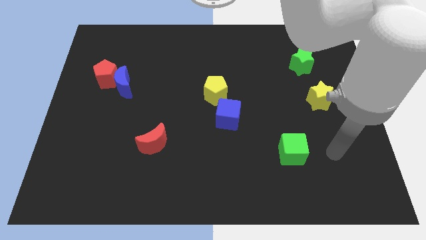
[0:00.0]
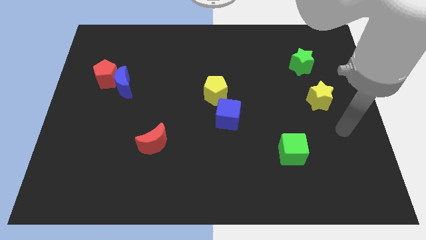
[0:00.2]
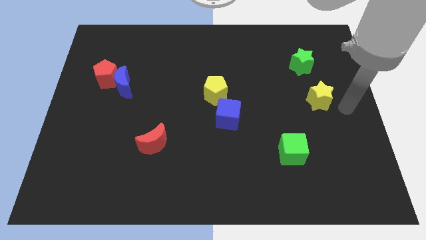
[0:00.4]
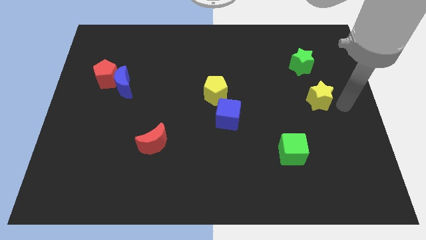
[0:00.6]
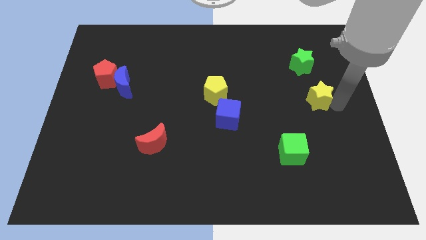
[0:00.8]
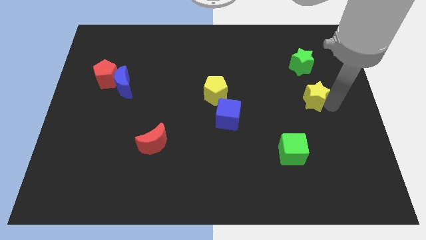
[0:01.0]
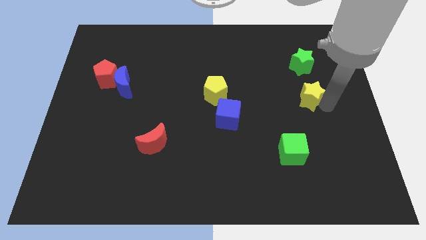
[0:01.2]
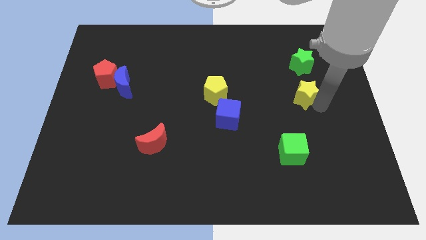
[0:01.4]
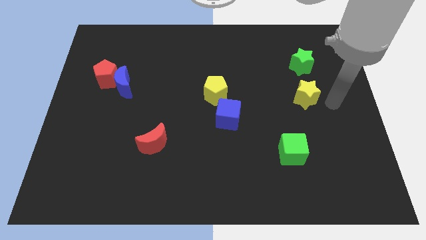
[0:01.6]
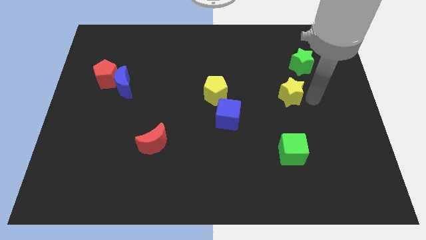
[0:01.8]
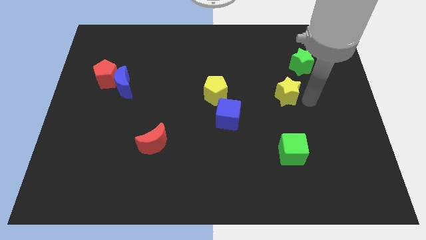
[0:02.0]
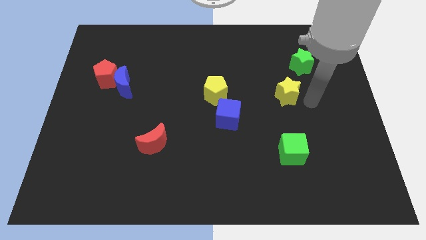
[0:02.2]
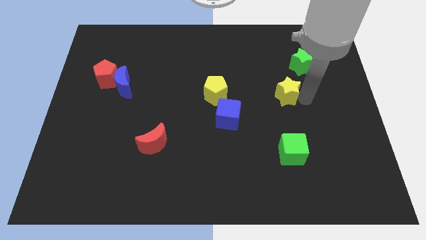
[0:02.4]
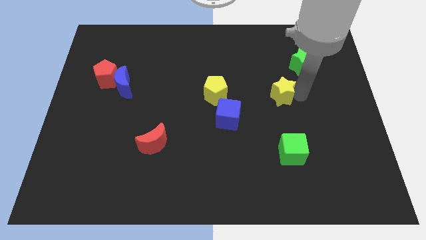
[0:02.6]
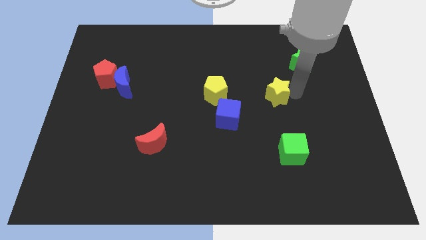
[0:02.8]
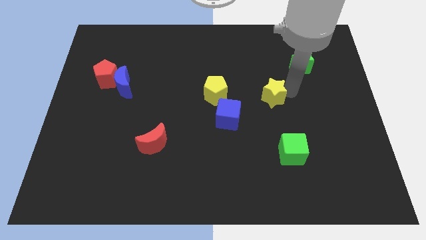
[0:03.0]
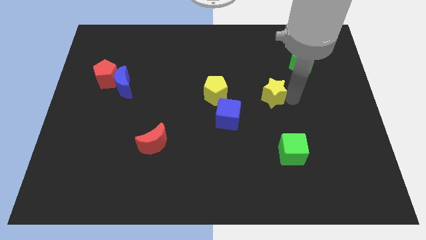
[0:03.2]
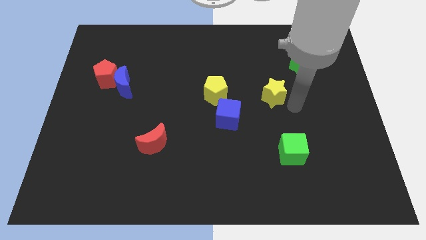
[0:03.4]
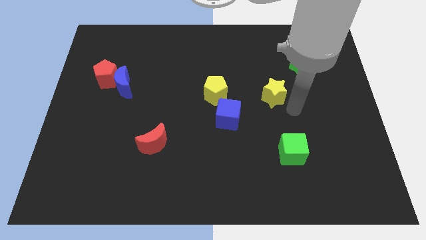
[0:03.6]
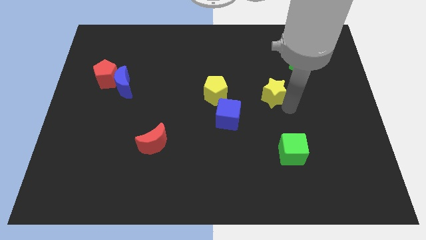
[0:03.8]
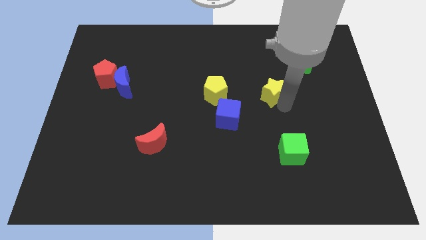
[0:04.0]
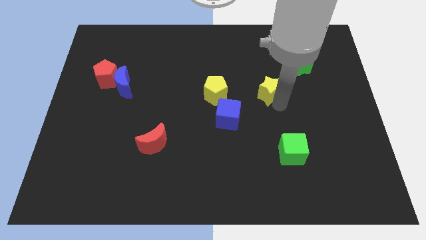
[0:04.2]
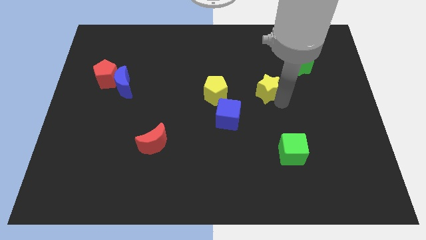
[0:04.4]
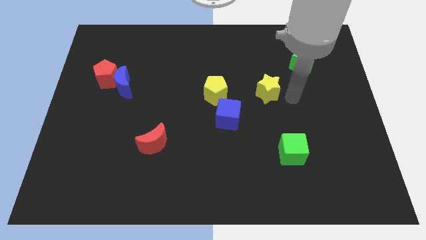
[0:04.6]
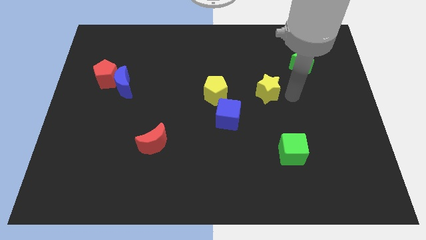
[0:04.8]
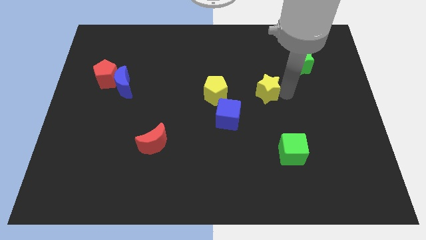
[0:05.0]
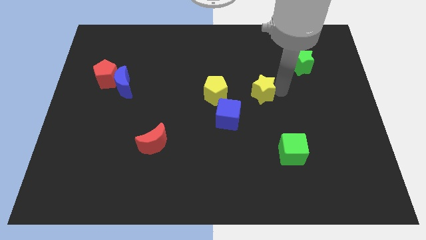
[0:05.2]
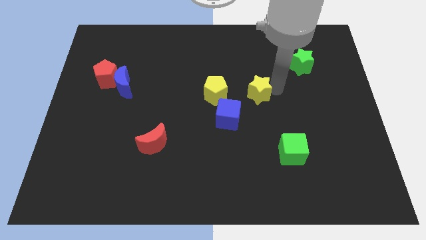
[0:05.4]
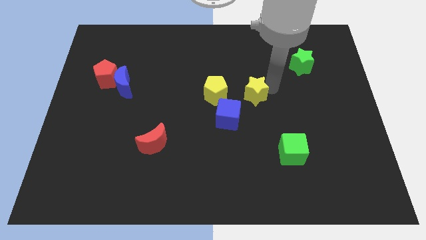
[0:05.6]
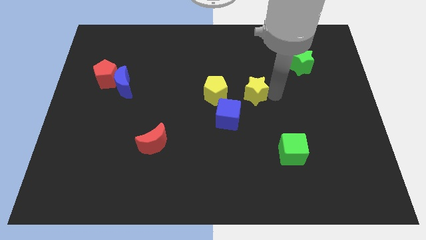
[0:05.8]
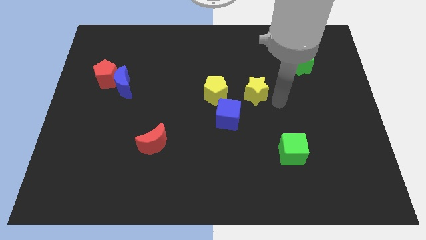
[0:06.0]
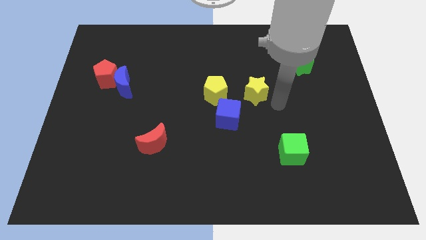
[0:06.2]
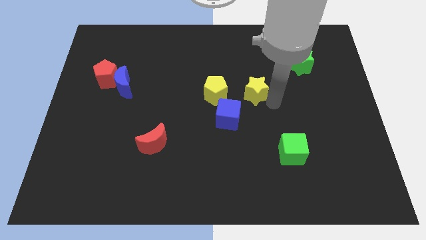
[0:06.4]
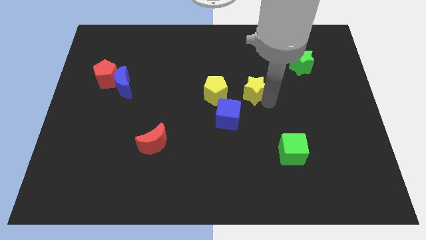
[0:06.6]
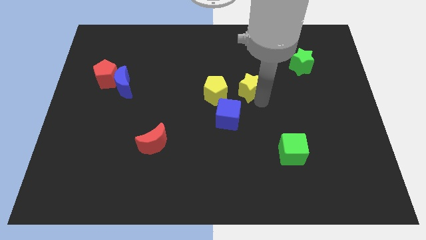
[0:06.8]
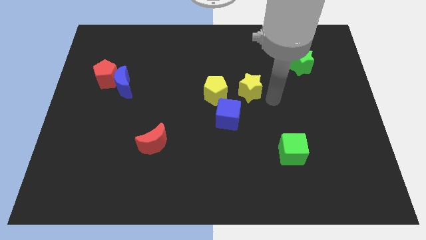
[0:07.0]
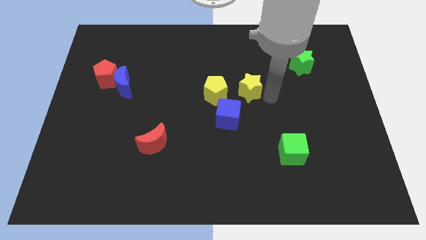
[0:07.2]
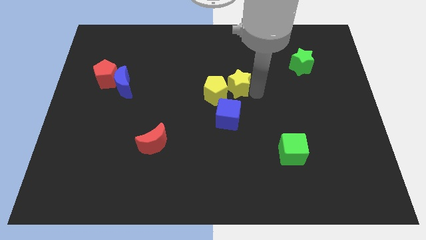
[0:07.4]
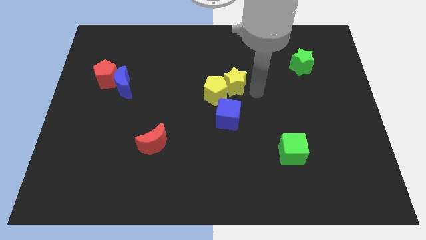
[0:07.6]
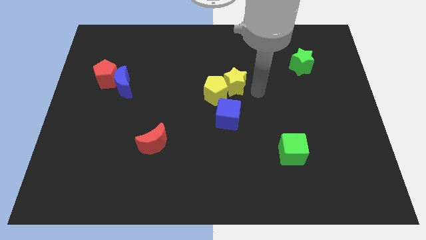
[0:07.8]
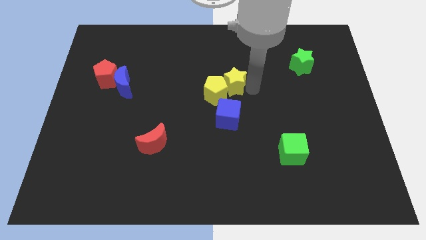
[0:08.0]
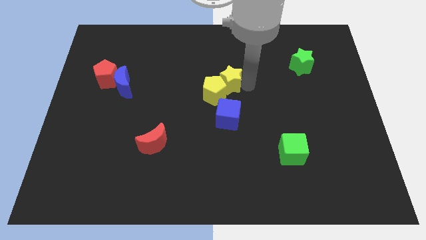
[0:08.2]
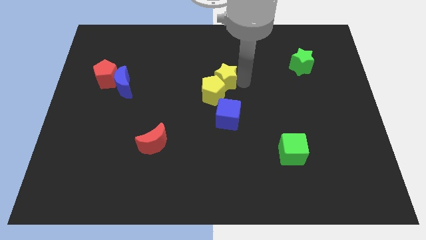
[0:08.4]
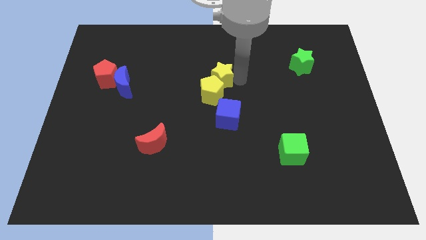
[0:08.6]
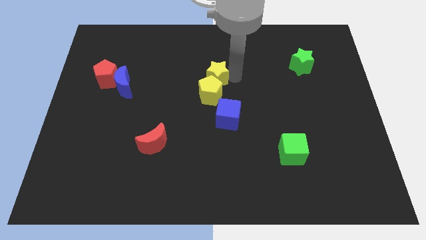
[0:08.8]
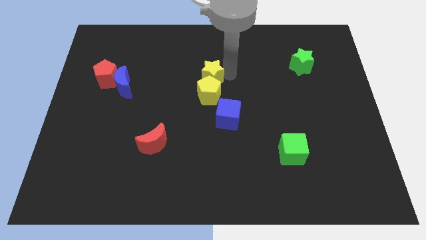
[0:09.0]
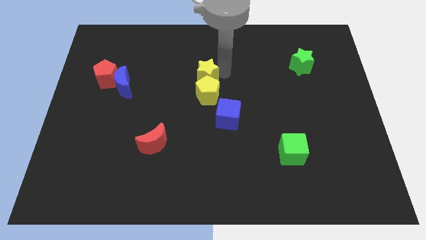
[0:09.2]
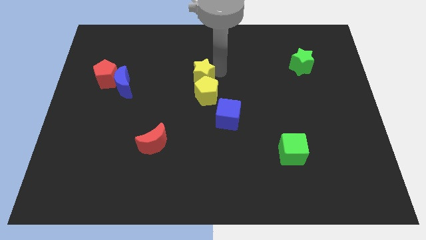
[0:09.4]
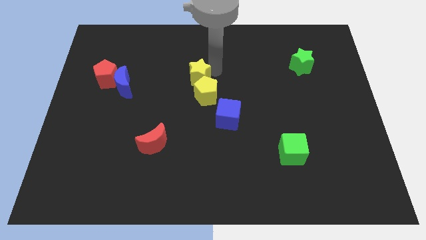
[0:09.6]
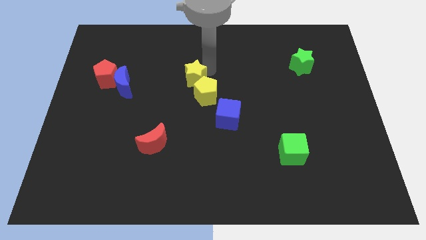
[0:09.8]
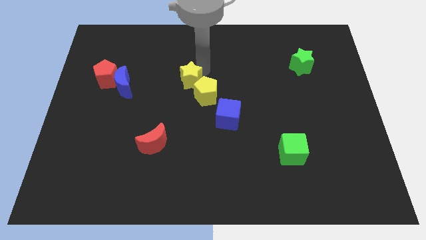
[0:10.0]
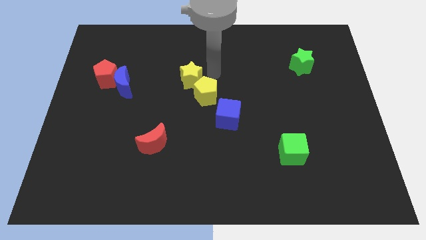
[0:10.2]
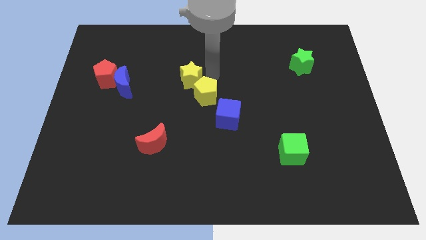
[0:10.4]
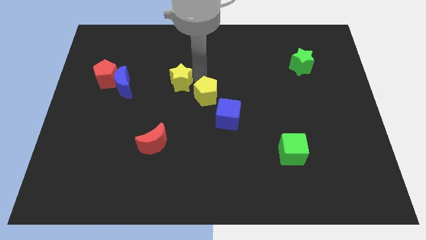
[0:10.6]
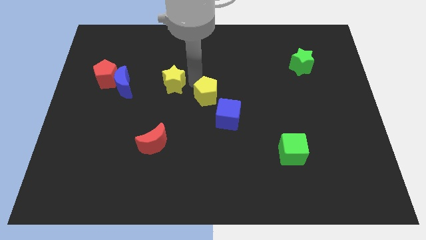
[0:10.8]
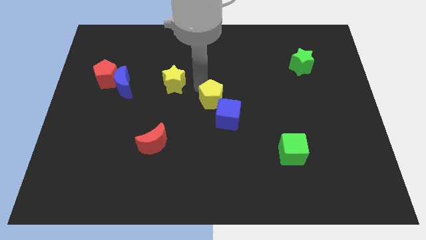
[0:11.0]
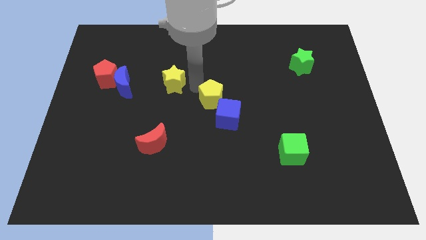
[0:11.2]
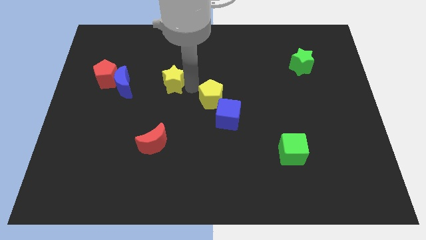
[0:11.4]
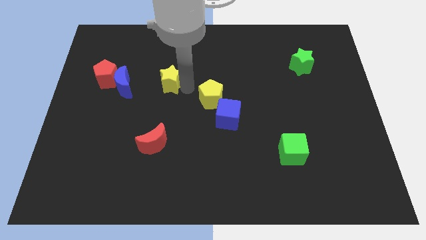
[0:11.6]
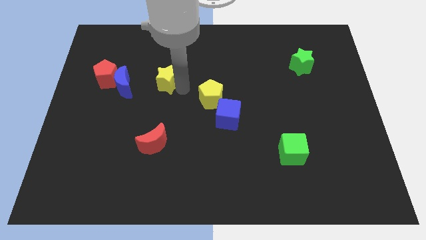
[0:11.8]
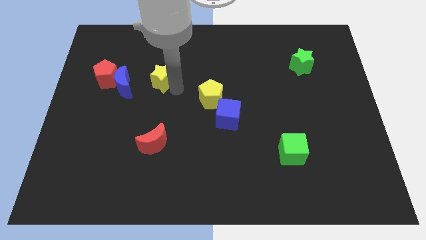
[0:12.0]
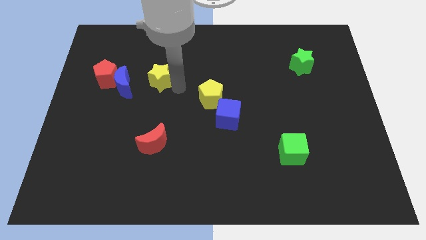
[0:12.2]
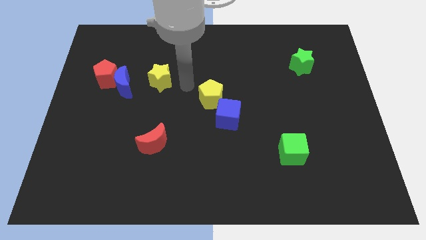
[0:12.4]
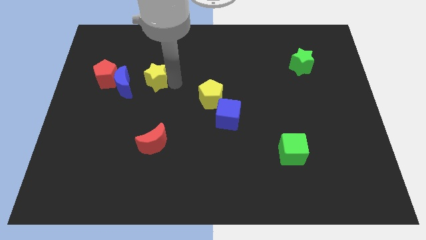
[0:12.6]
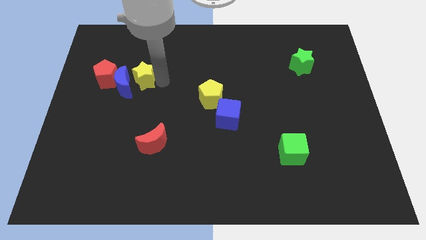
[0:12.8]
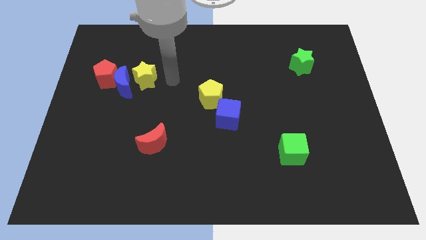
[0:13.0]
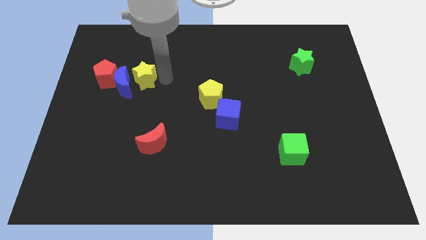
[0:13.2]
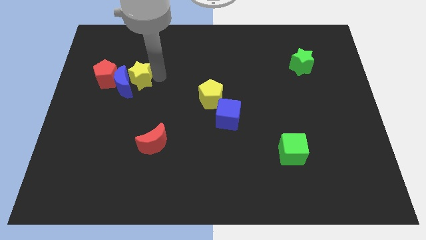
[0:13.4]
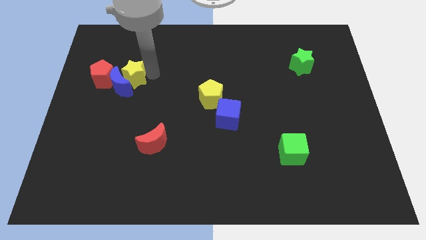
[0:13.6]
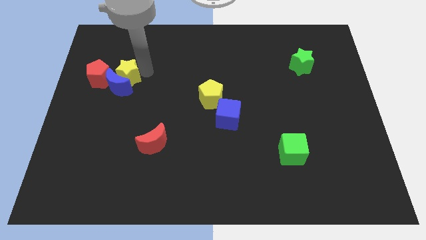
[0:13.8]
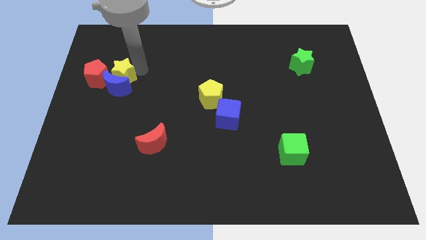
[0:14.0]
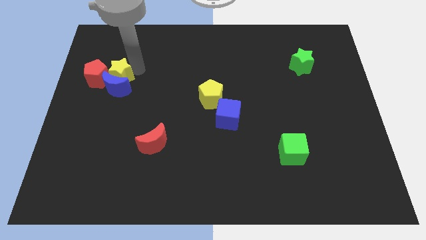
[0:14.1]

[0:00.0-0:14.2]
push the yellow star next to the red pentagon
